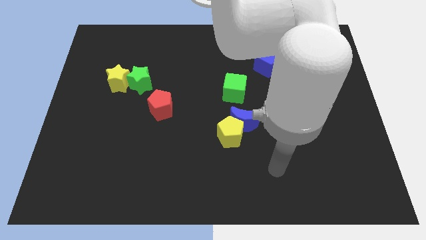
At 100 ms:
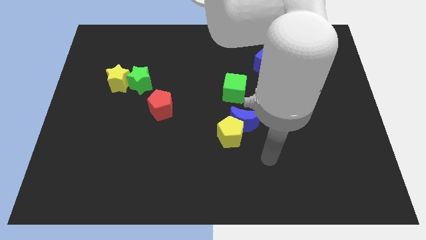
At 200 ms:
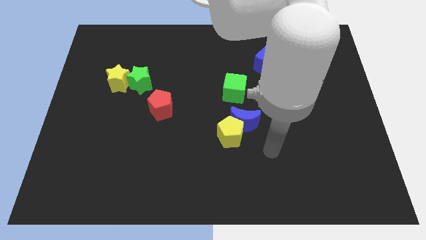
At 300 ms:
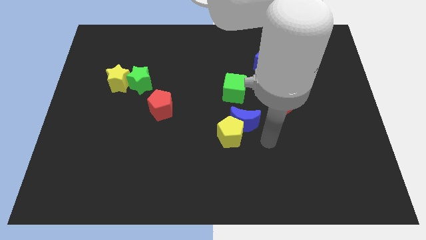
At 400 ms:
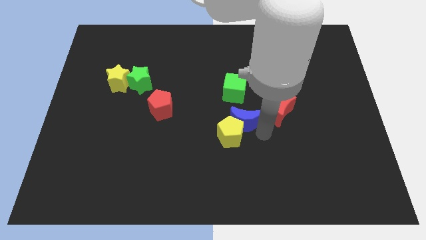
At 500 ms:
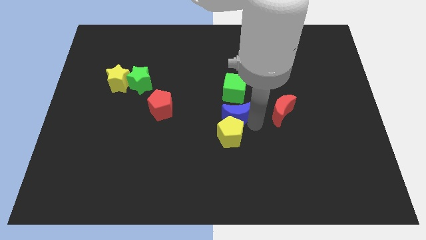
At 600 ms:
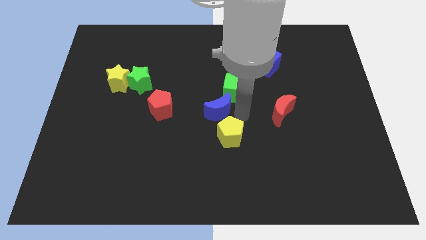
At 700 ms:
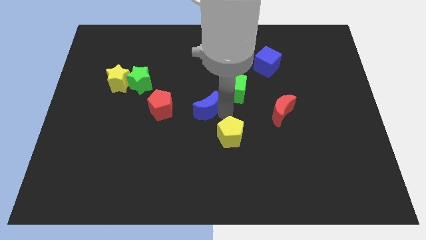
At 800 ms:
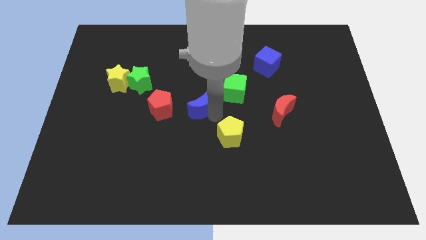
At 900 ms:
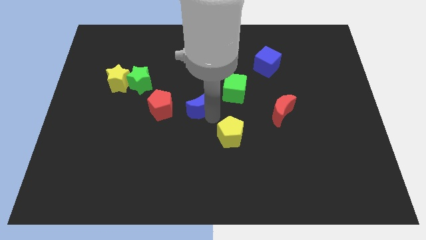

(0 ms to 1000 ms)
pull the yellow pentagon apart from the blue moon

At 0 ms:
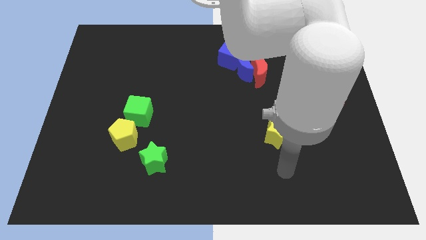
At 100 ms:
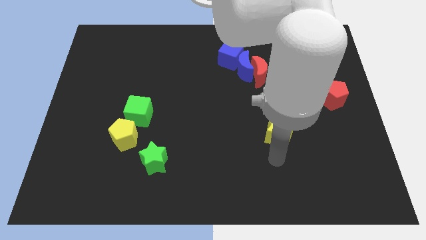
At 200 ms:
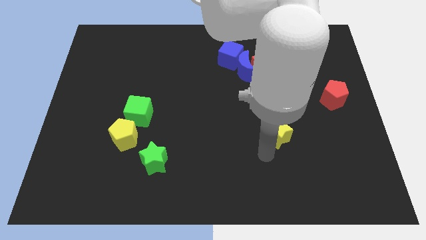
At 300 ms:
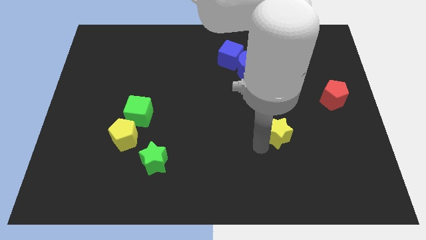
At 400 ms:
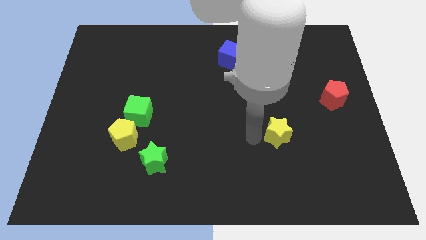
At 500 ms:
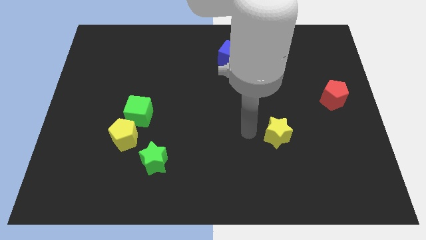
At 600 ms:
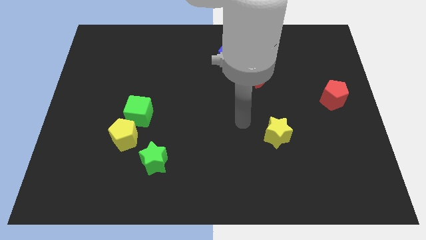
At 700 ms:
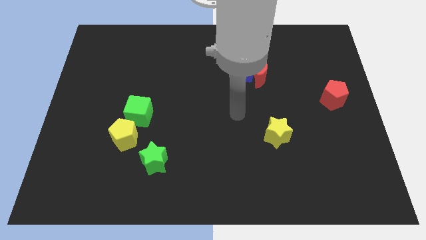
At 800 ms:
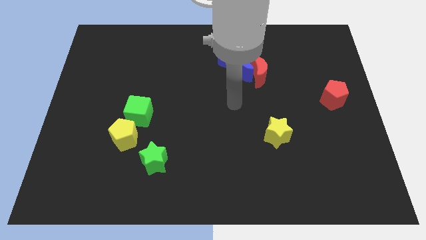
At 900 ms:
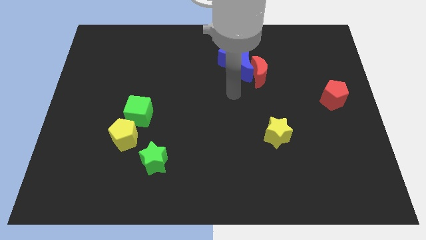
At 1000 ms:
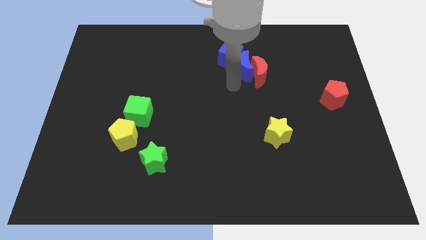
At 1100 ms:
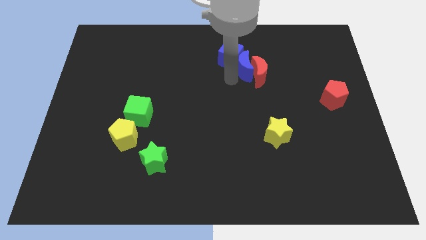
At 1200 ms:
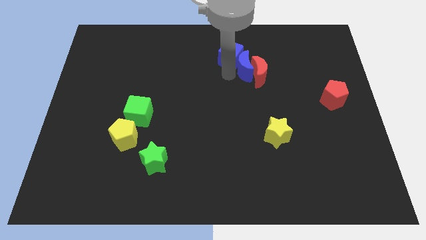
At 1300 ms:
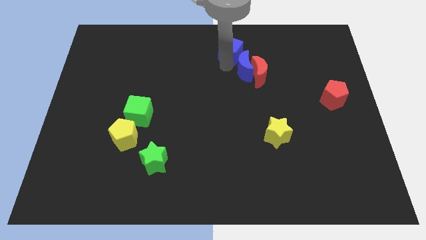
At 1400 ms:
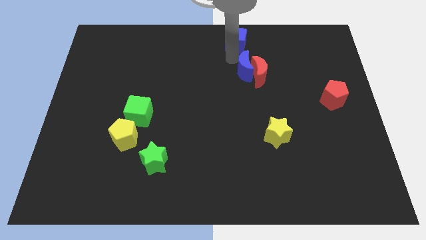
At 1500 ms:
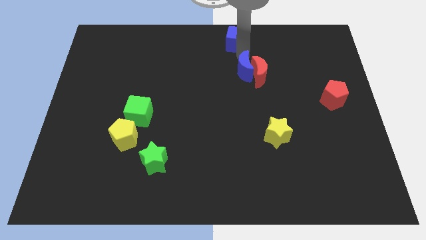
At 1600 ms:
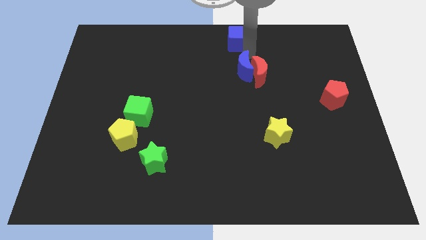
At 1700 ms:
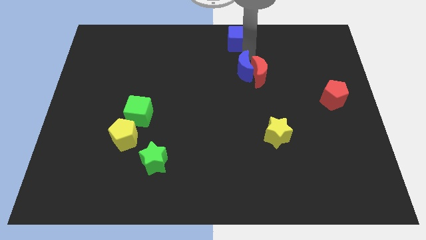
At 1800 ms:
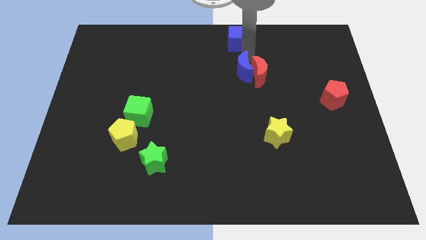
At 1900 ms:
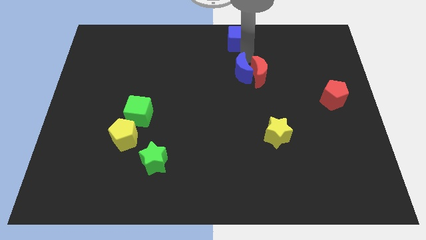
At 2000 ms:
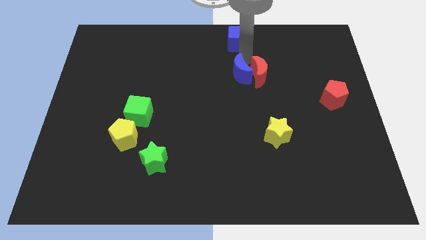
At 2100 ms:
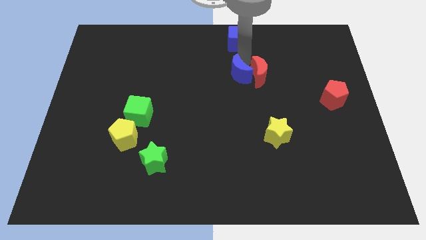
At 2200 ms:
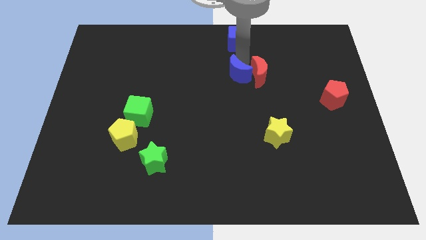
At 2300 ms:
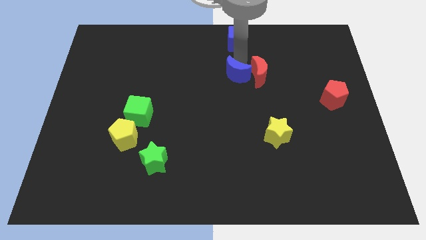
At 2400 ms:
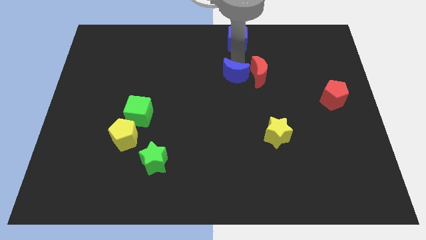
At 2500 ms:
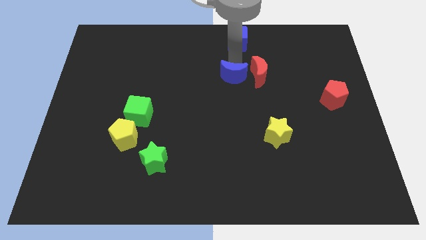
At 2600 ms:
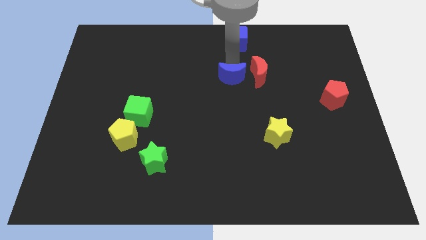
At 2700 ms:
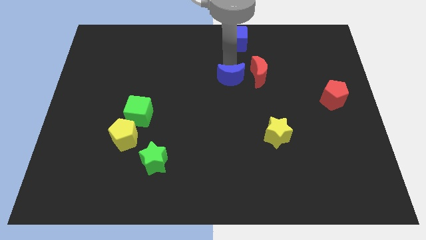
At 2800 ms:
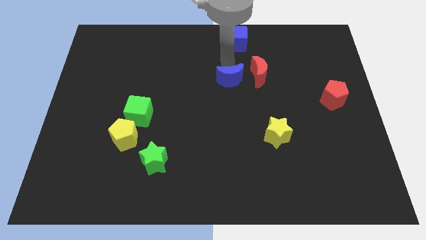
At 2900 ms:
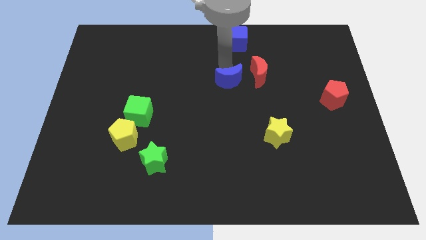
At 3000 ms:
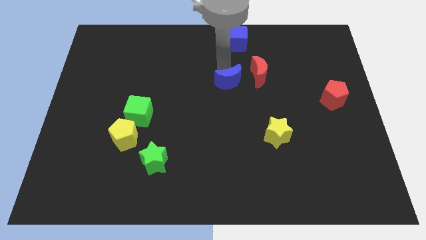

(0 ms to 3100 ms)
pull the blue moon apart from the red moon and blue cube

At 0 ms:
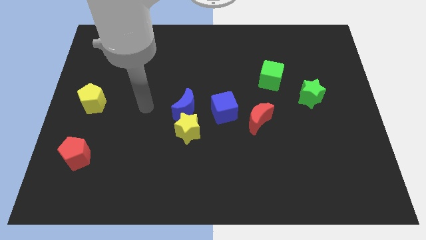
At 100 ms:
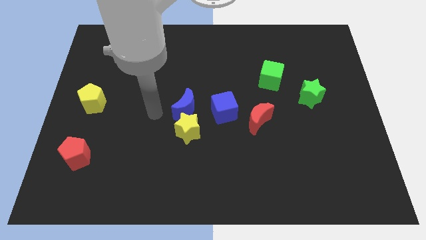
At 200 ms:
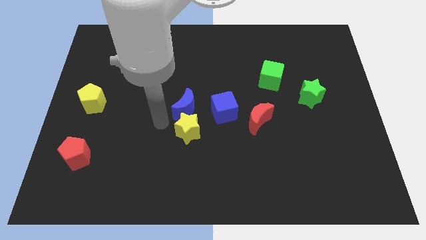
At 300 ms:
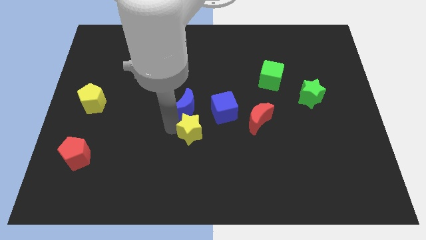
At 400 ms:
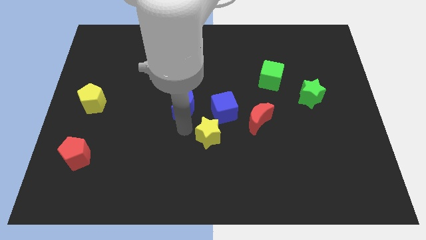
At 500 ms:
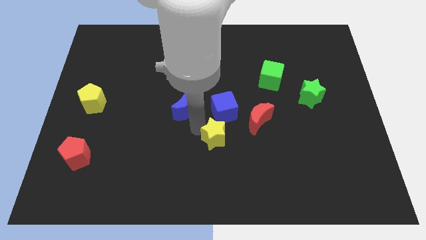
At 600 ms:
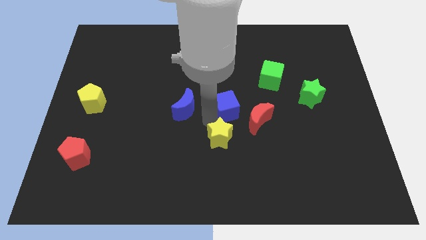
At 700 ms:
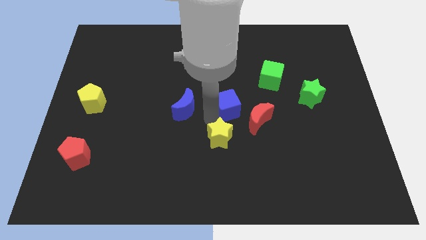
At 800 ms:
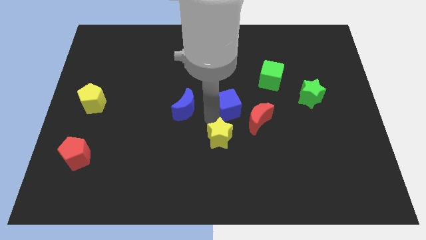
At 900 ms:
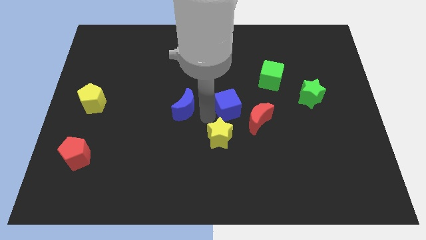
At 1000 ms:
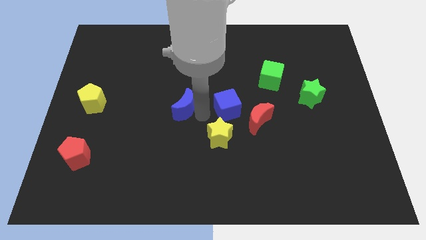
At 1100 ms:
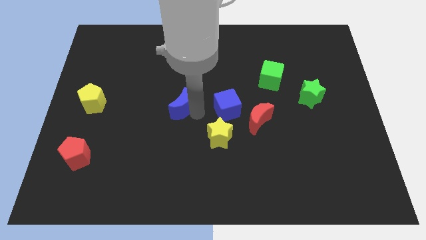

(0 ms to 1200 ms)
move the blue moon away from the yellow star and blue cube

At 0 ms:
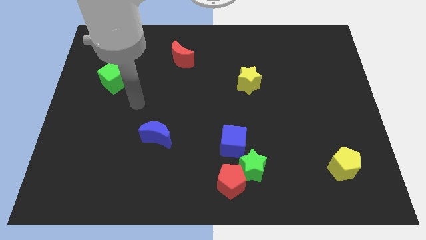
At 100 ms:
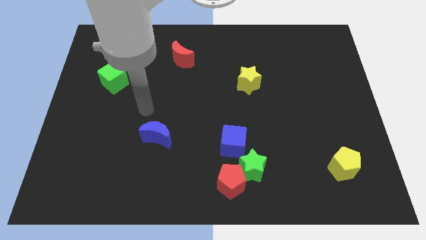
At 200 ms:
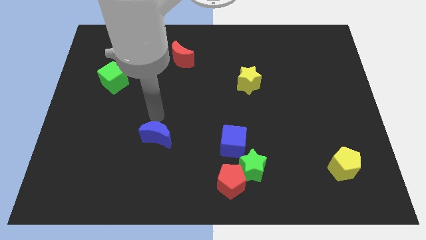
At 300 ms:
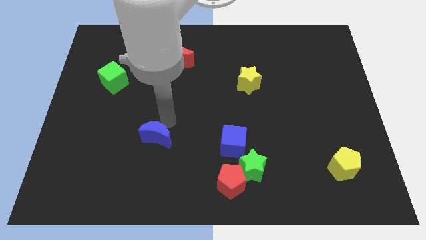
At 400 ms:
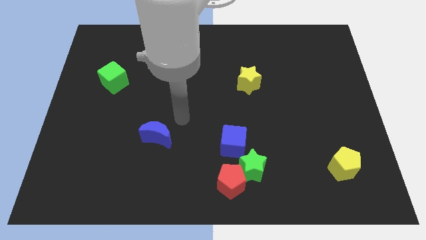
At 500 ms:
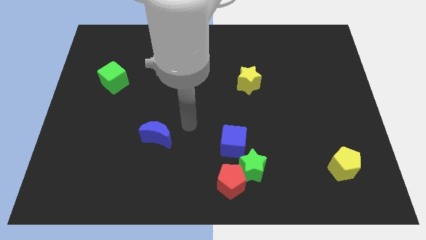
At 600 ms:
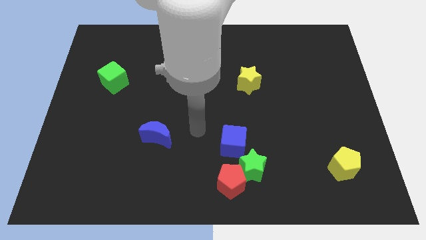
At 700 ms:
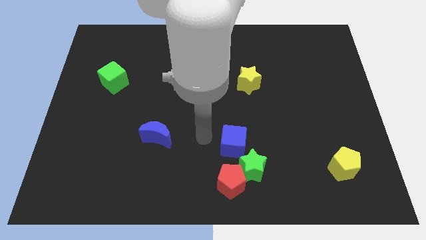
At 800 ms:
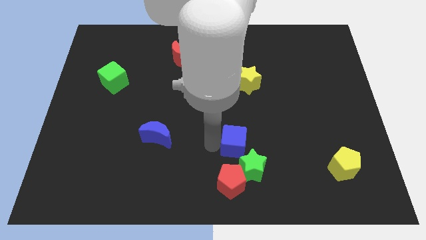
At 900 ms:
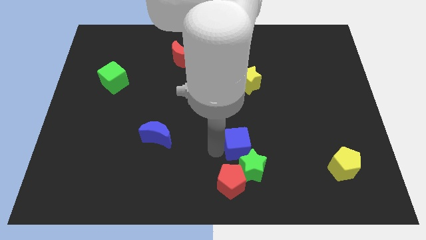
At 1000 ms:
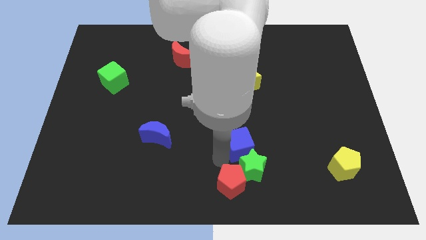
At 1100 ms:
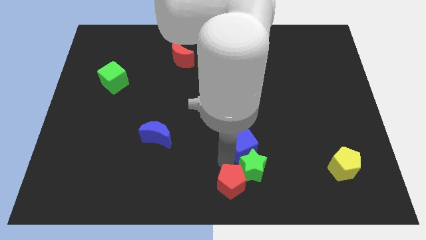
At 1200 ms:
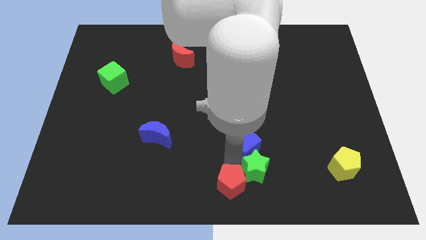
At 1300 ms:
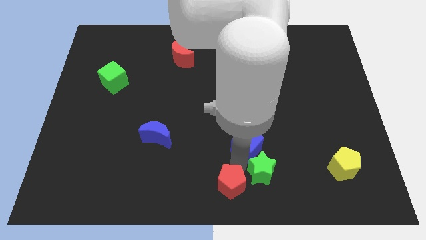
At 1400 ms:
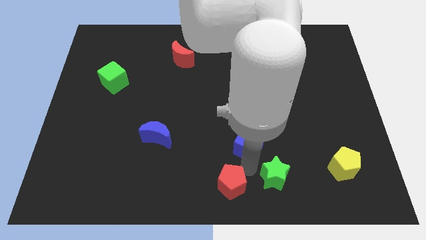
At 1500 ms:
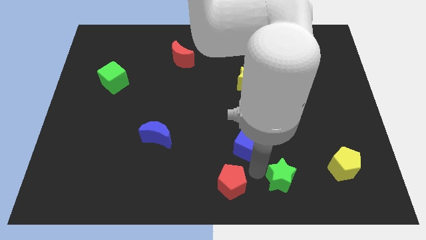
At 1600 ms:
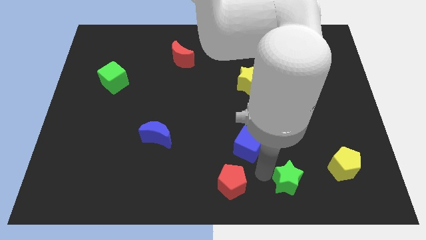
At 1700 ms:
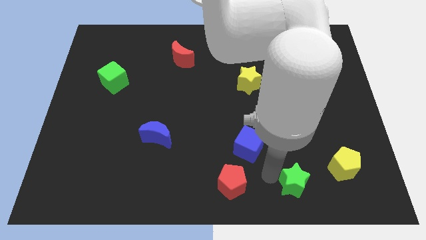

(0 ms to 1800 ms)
move the green star away from the red pentagon and blue cube

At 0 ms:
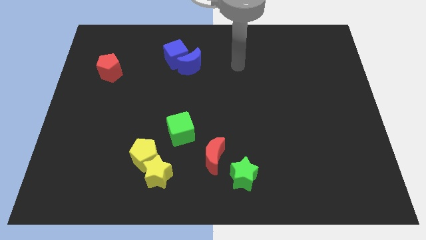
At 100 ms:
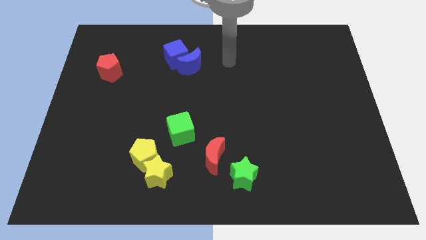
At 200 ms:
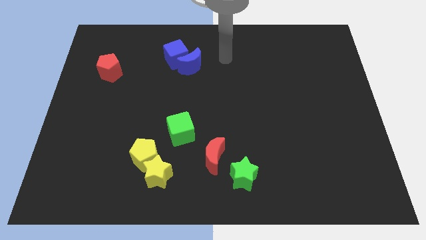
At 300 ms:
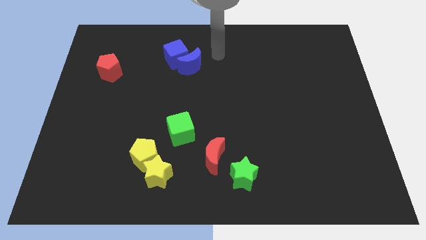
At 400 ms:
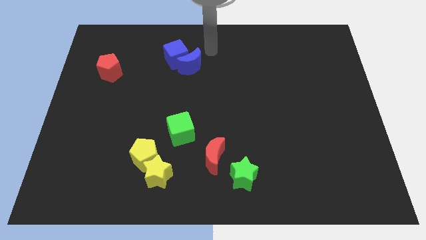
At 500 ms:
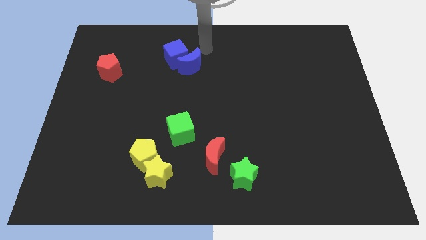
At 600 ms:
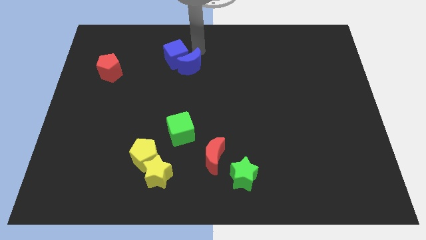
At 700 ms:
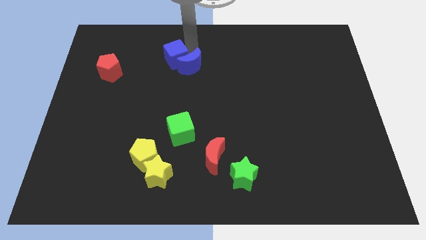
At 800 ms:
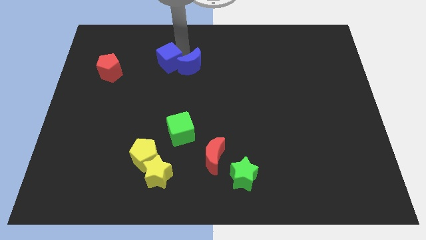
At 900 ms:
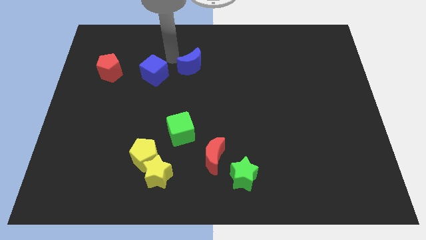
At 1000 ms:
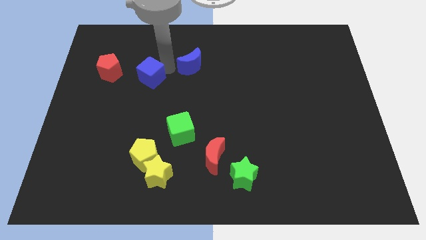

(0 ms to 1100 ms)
separate the blue moon from the blue cube

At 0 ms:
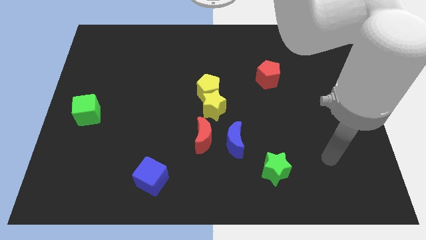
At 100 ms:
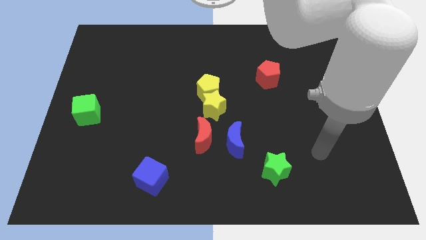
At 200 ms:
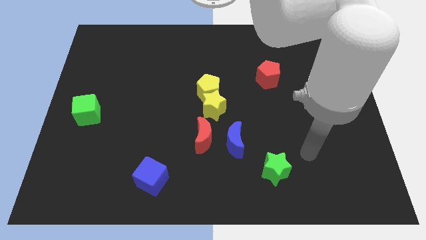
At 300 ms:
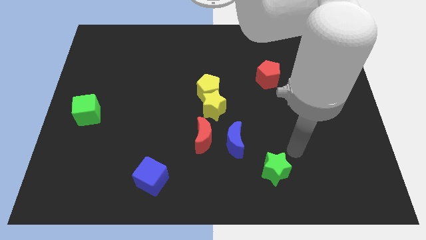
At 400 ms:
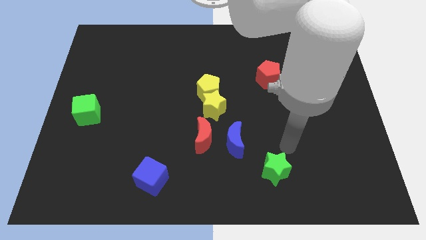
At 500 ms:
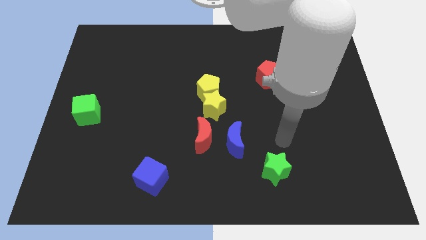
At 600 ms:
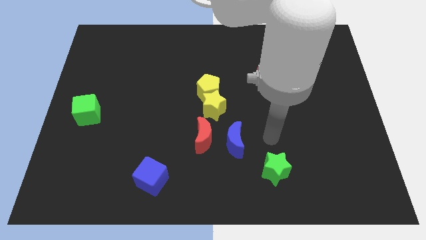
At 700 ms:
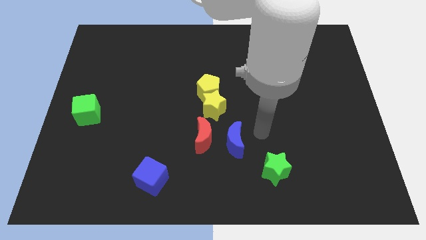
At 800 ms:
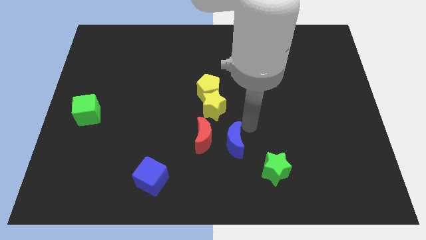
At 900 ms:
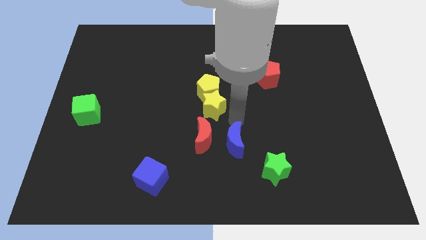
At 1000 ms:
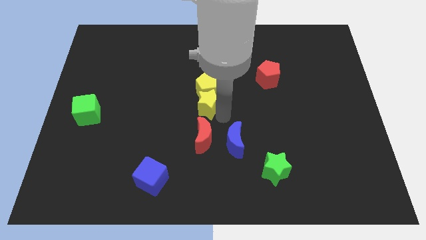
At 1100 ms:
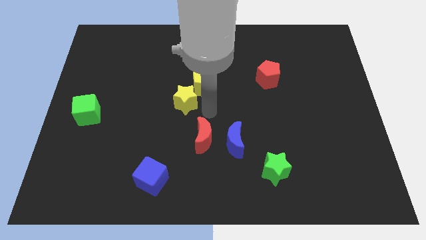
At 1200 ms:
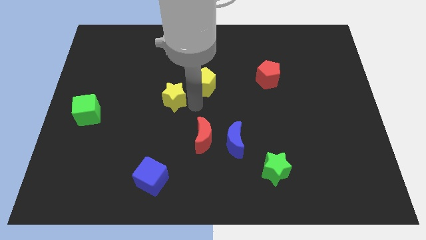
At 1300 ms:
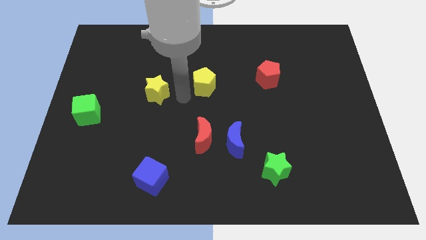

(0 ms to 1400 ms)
pull the yellow pentagon apart from the yellow star
